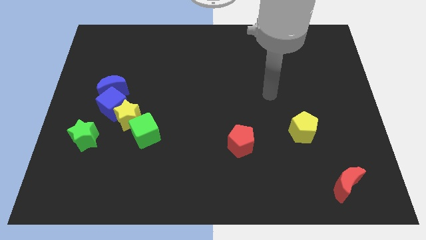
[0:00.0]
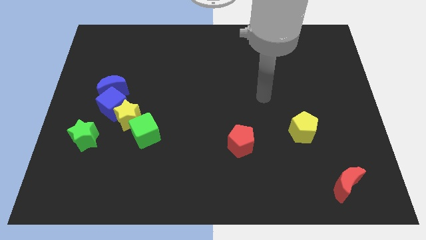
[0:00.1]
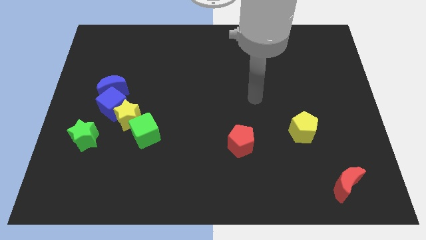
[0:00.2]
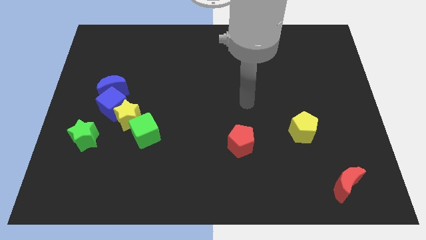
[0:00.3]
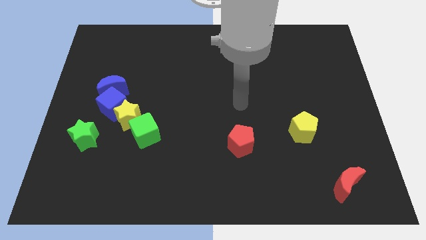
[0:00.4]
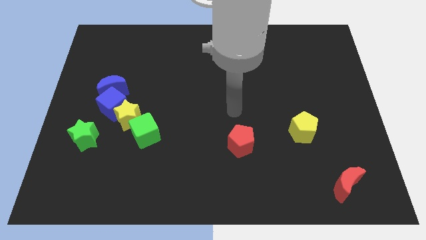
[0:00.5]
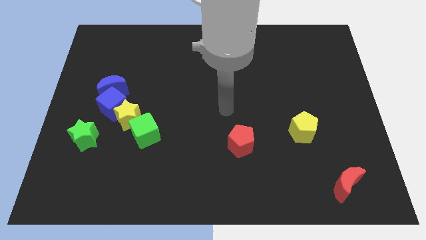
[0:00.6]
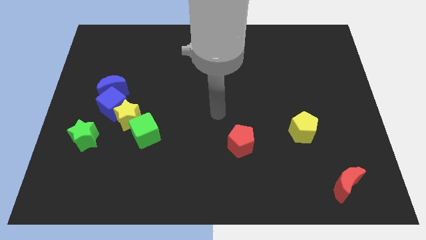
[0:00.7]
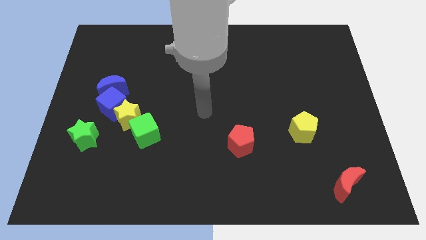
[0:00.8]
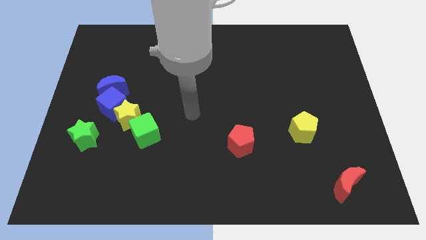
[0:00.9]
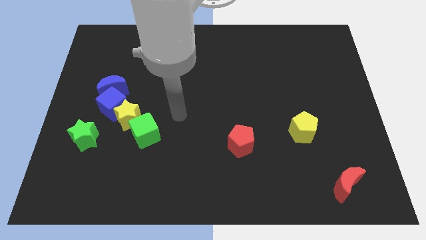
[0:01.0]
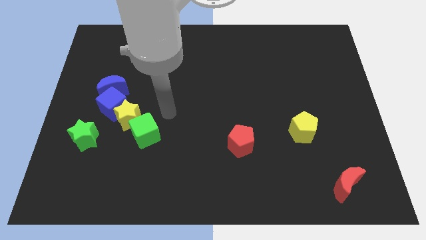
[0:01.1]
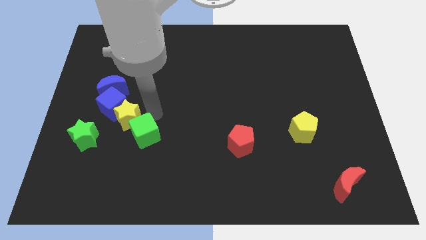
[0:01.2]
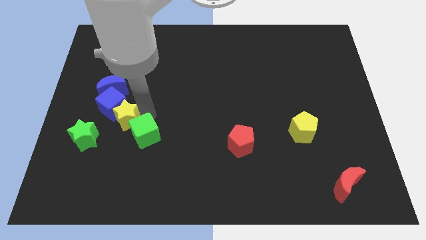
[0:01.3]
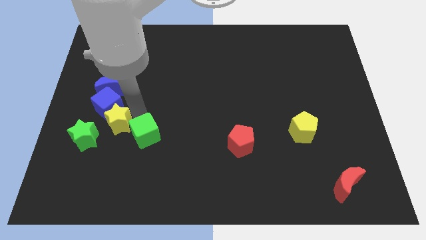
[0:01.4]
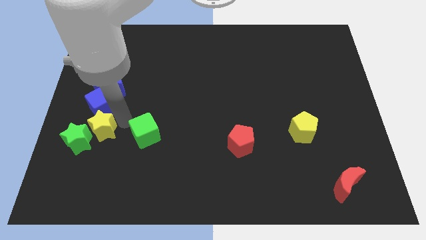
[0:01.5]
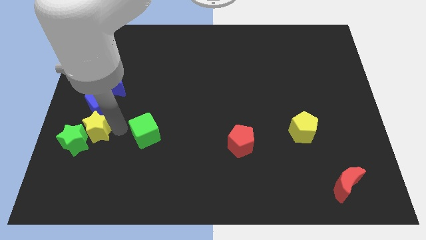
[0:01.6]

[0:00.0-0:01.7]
pull the green cube apart from the yellow star

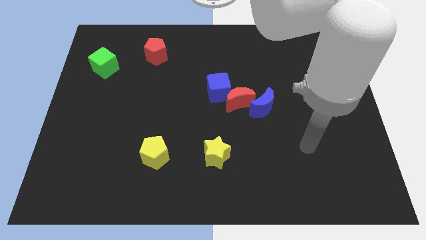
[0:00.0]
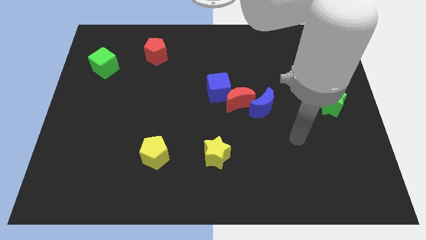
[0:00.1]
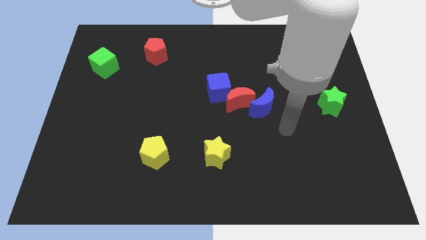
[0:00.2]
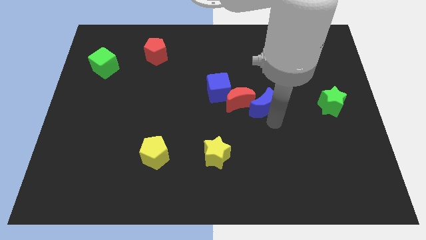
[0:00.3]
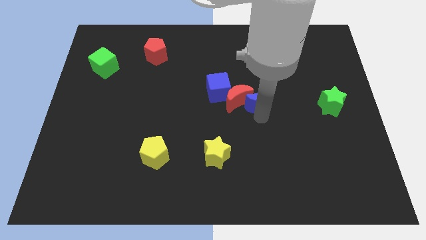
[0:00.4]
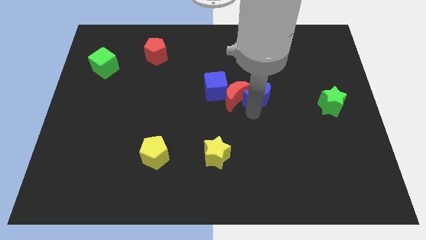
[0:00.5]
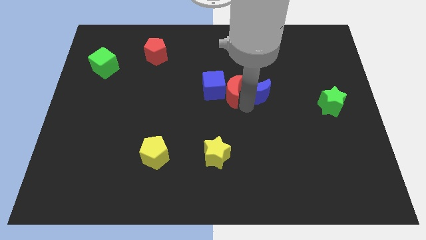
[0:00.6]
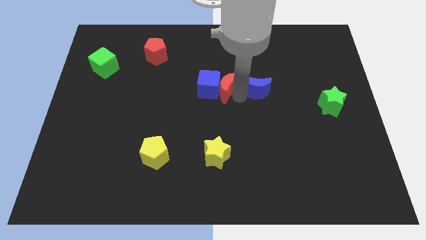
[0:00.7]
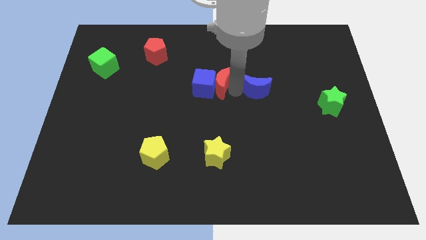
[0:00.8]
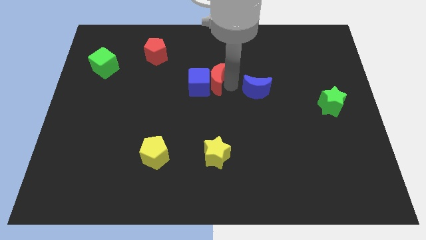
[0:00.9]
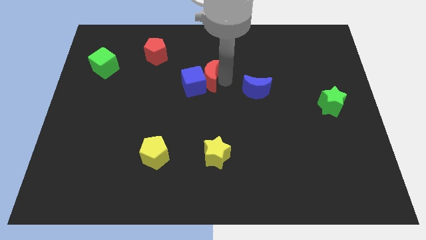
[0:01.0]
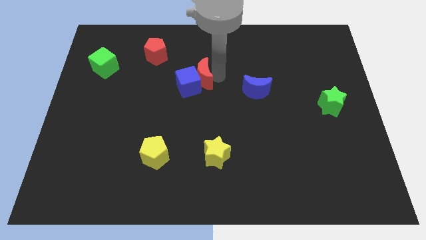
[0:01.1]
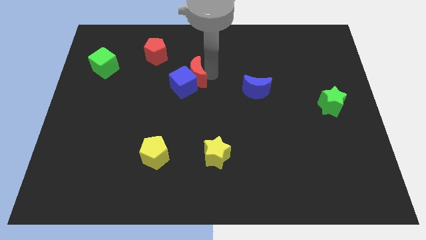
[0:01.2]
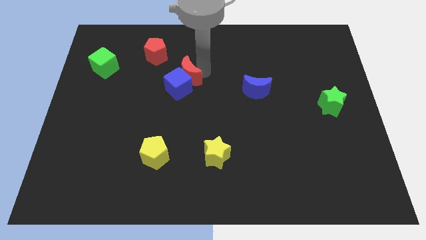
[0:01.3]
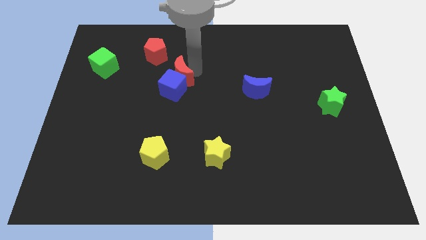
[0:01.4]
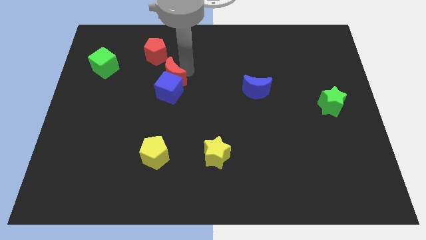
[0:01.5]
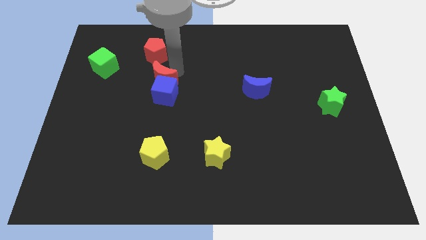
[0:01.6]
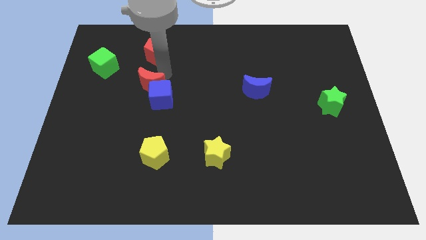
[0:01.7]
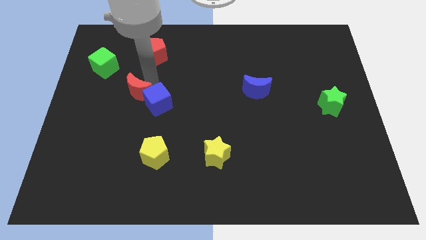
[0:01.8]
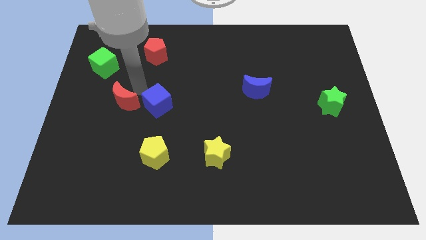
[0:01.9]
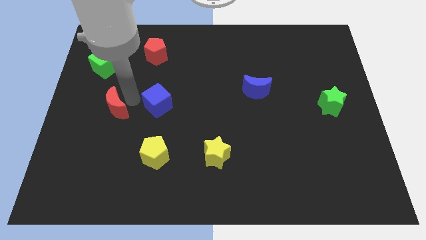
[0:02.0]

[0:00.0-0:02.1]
move the blue cube away from the red moon

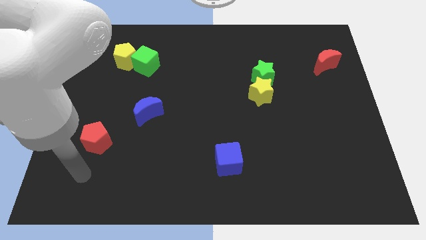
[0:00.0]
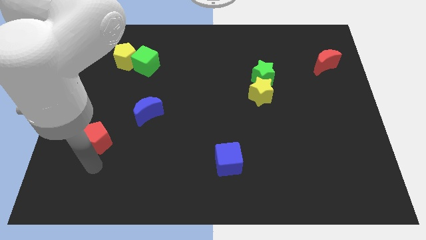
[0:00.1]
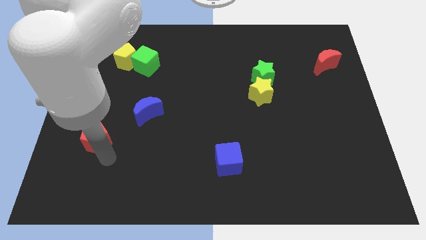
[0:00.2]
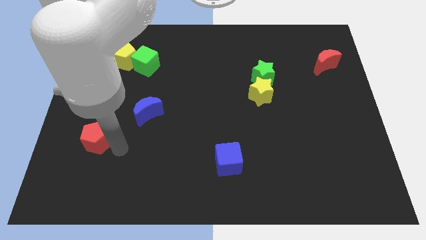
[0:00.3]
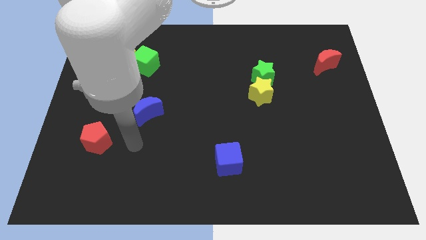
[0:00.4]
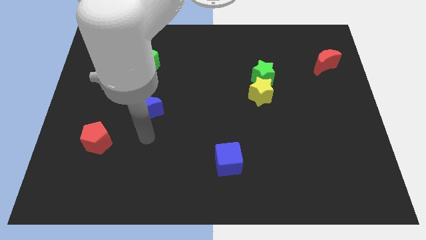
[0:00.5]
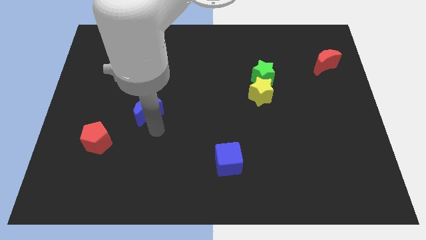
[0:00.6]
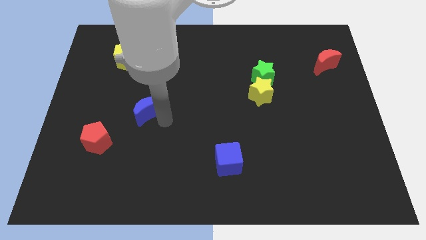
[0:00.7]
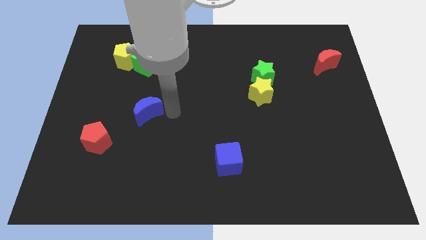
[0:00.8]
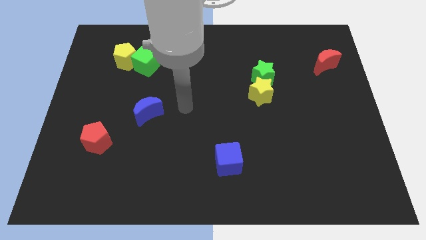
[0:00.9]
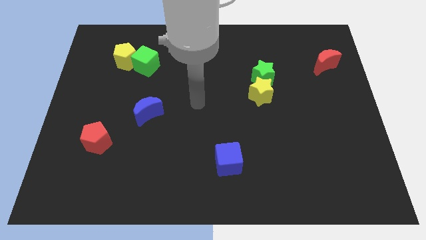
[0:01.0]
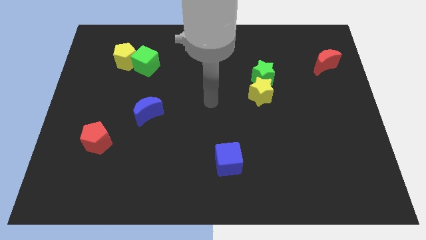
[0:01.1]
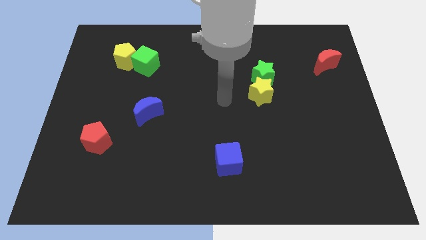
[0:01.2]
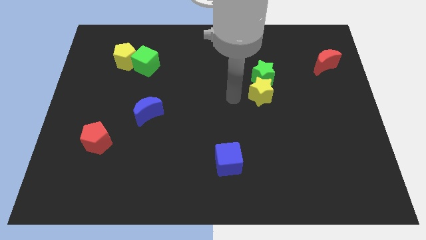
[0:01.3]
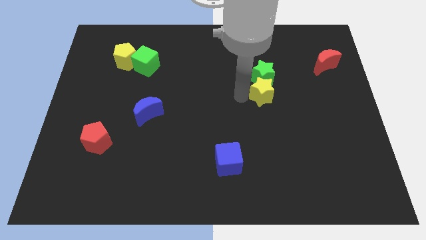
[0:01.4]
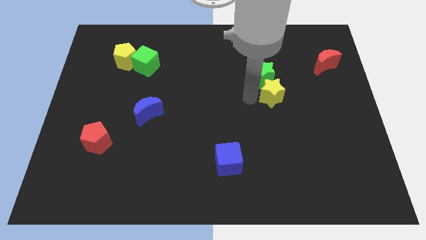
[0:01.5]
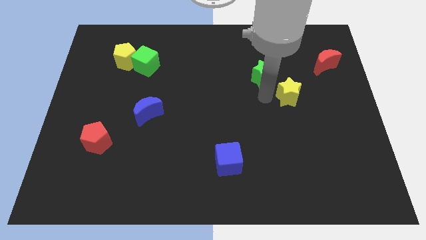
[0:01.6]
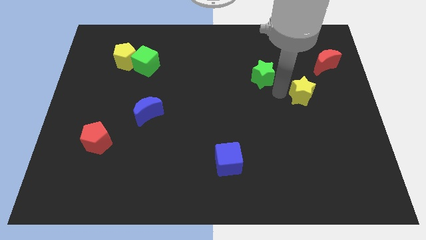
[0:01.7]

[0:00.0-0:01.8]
move the green star away from the yellow star

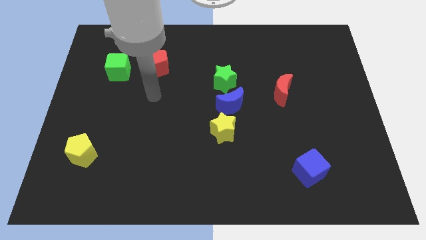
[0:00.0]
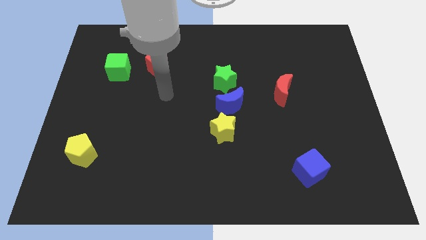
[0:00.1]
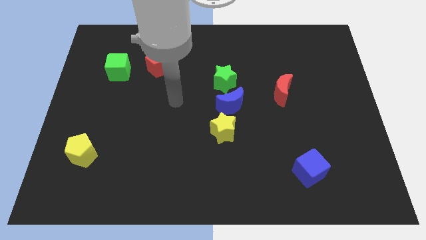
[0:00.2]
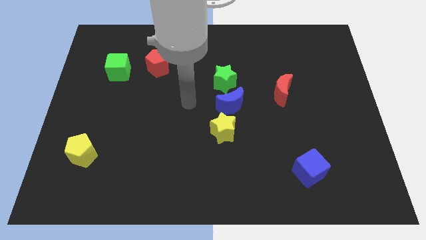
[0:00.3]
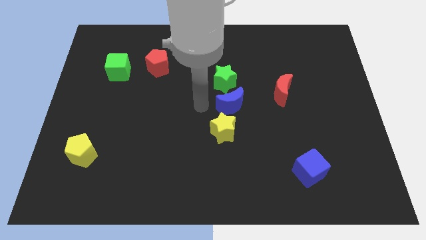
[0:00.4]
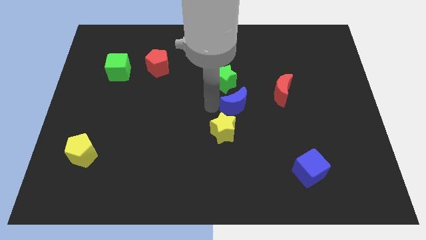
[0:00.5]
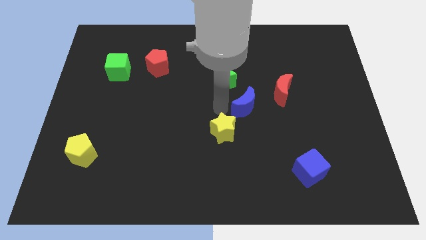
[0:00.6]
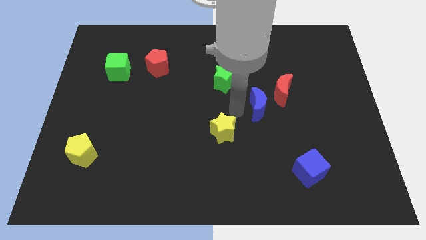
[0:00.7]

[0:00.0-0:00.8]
move the yellow star away from the blue moon

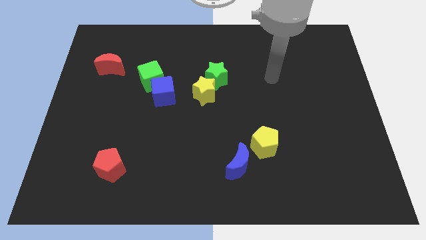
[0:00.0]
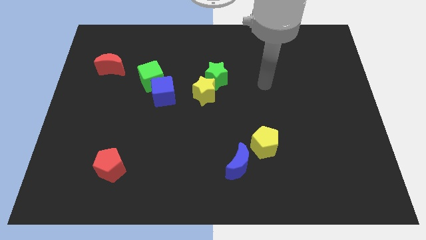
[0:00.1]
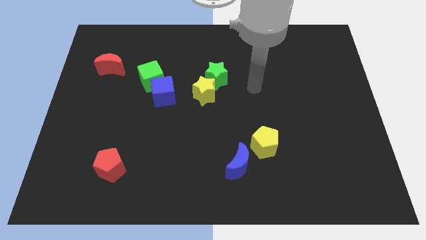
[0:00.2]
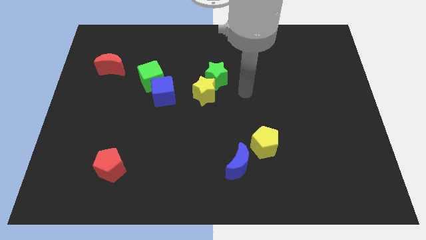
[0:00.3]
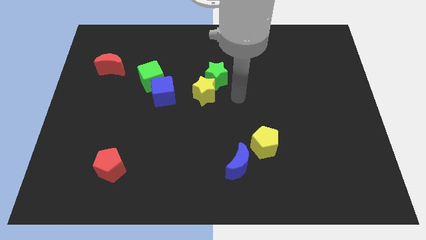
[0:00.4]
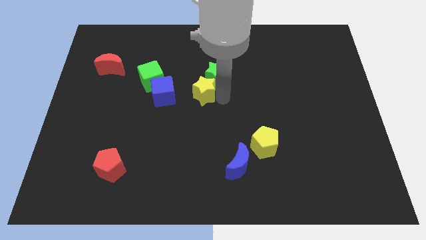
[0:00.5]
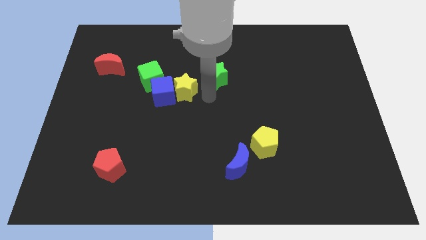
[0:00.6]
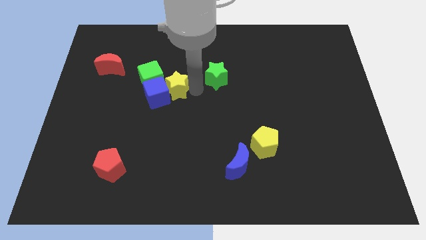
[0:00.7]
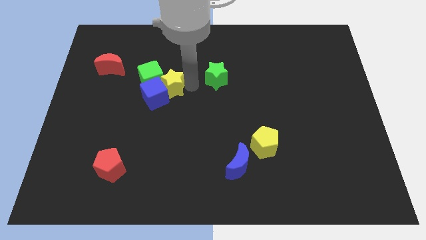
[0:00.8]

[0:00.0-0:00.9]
separate the green star from the yellow star

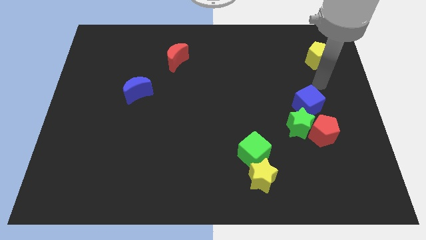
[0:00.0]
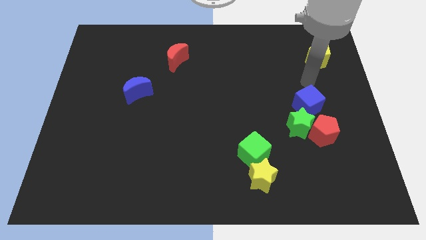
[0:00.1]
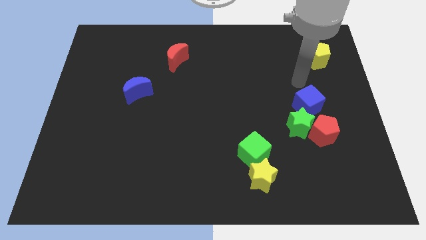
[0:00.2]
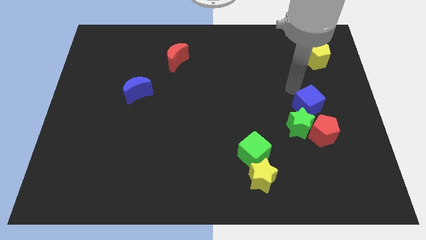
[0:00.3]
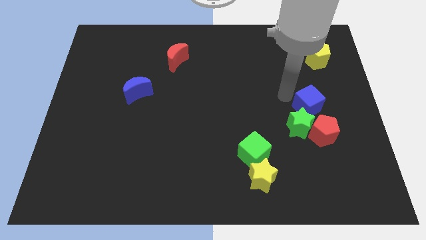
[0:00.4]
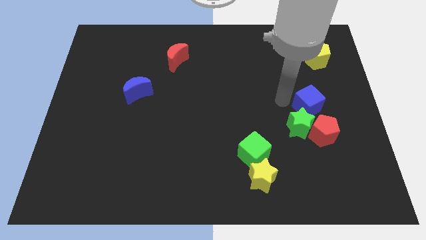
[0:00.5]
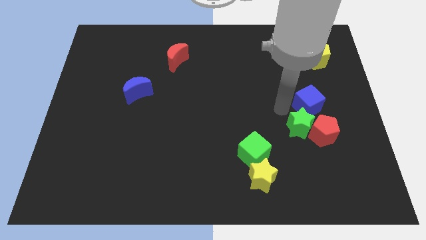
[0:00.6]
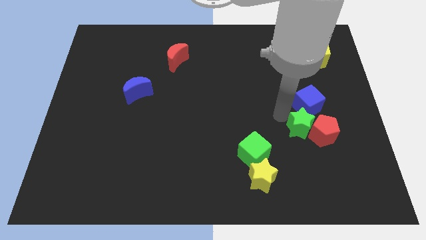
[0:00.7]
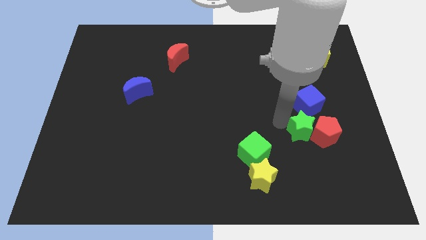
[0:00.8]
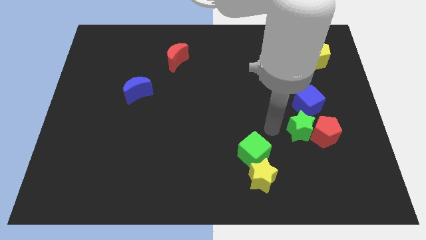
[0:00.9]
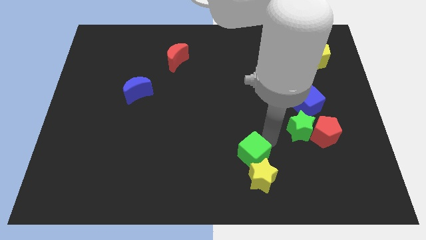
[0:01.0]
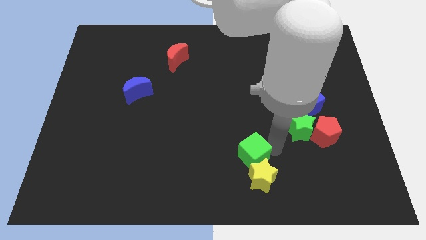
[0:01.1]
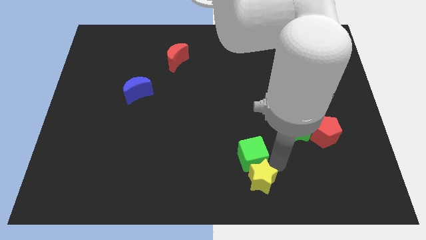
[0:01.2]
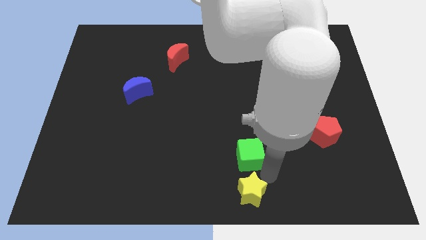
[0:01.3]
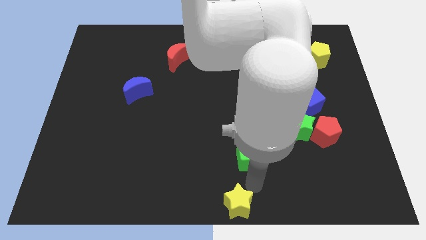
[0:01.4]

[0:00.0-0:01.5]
move the green cube away from the yellow star

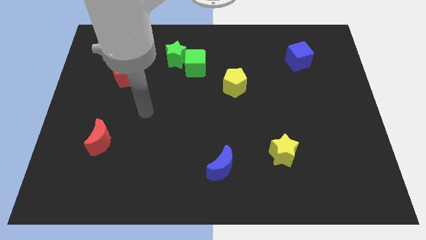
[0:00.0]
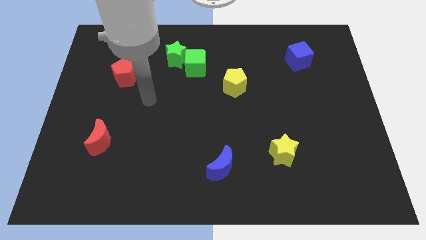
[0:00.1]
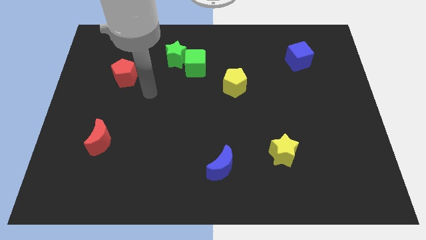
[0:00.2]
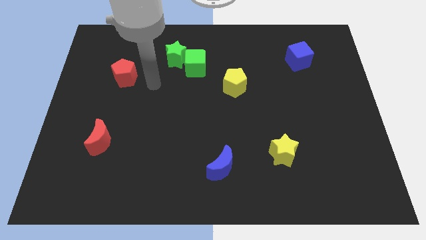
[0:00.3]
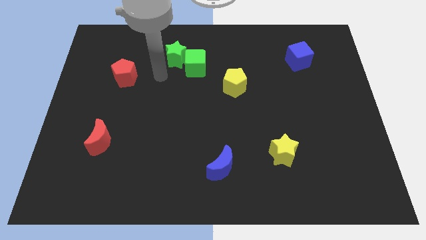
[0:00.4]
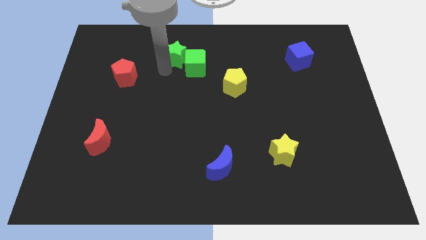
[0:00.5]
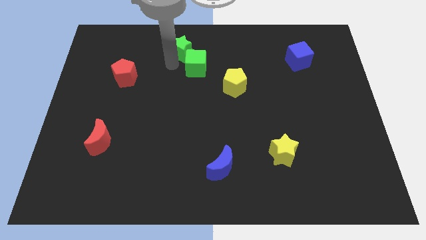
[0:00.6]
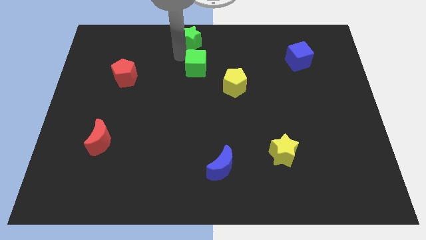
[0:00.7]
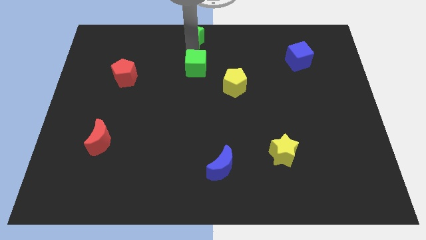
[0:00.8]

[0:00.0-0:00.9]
separate the green cube from the green star
